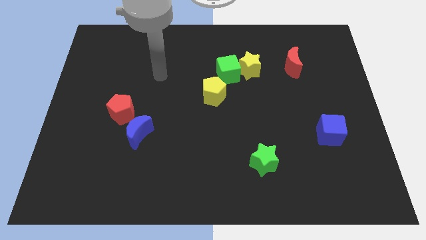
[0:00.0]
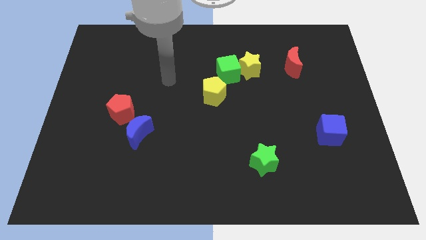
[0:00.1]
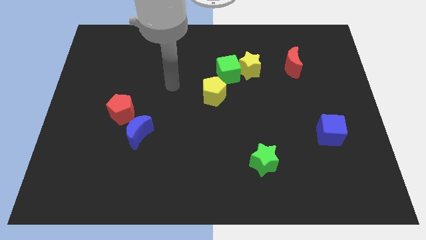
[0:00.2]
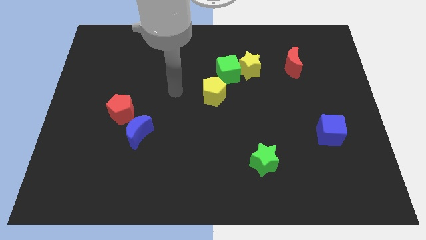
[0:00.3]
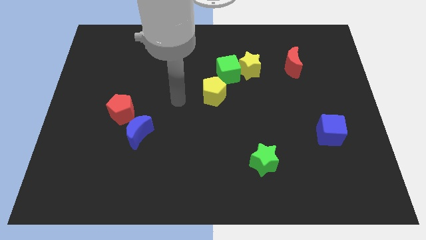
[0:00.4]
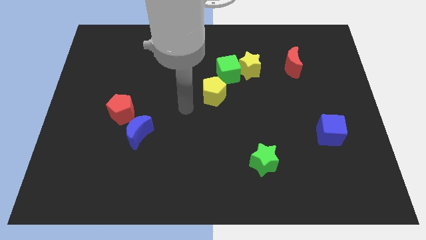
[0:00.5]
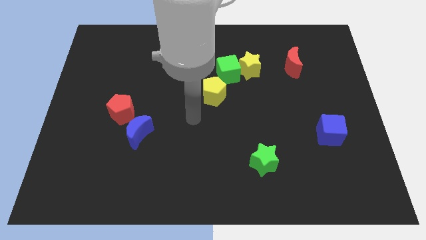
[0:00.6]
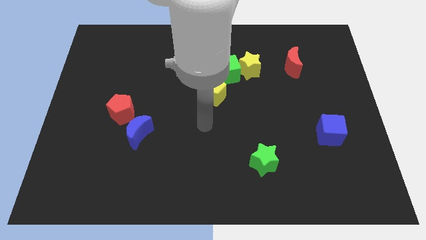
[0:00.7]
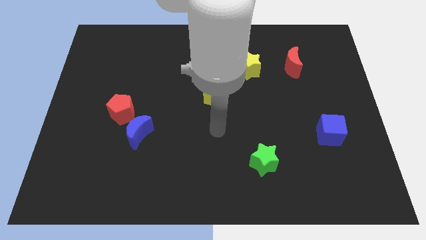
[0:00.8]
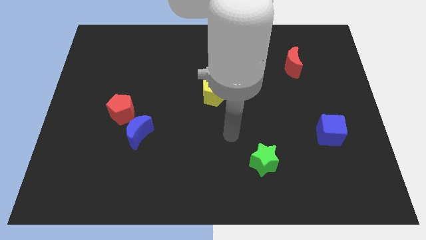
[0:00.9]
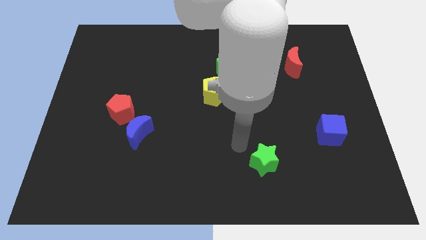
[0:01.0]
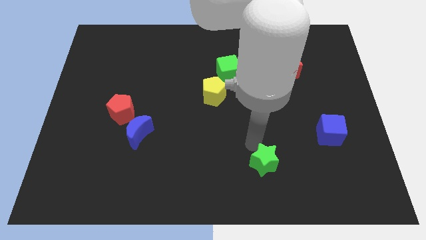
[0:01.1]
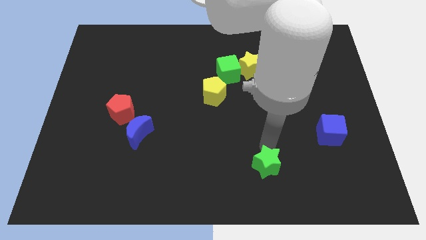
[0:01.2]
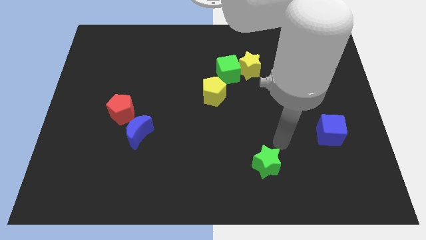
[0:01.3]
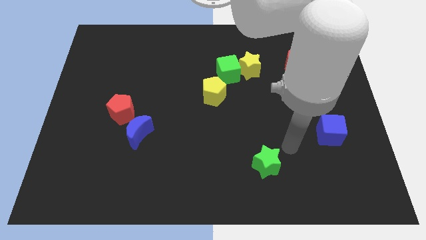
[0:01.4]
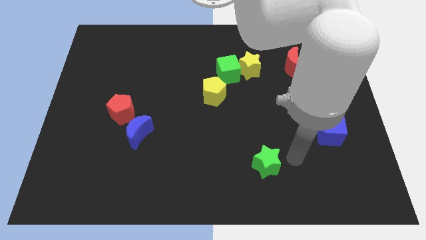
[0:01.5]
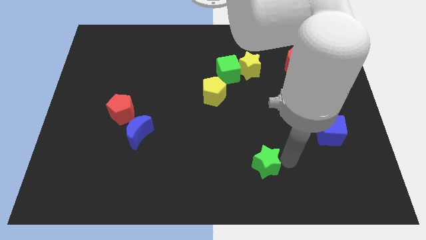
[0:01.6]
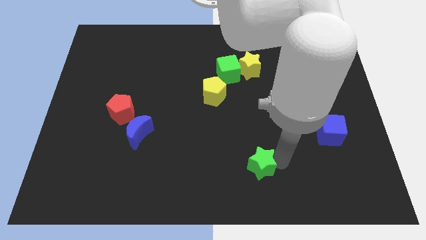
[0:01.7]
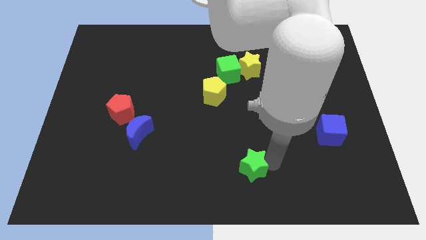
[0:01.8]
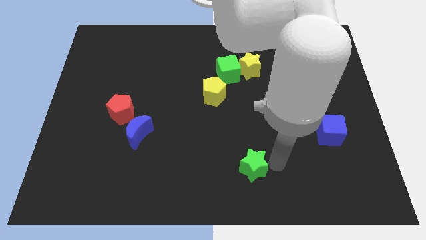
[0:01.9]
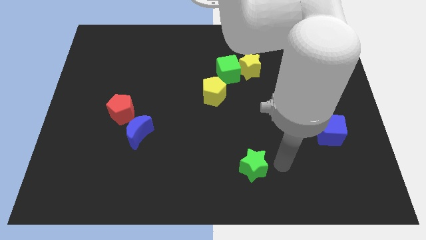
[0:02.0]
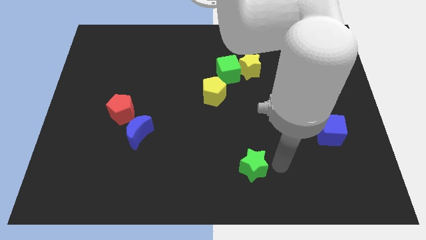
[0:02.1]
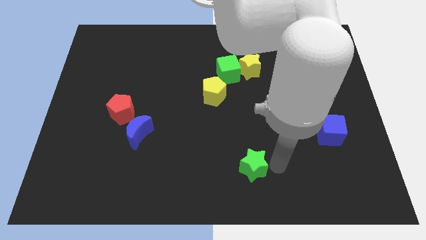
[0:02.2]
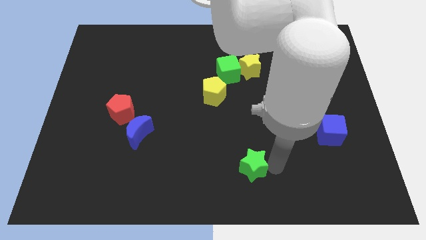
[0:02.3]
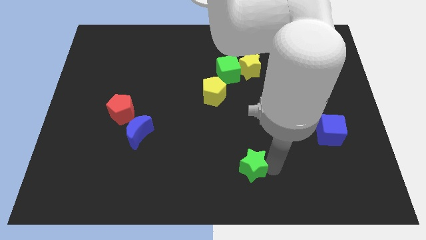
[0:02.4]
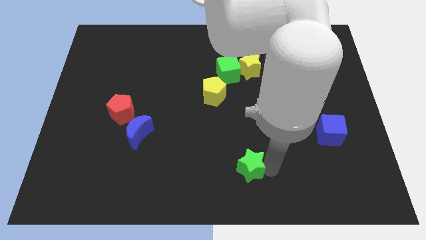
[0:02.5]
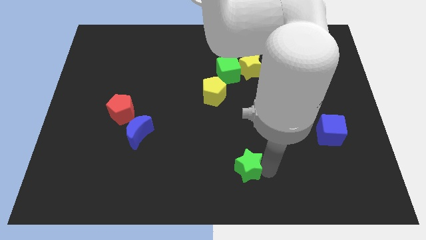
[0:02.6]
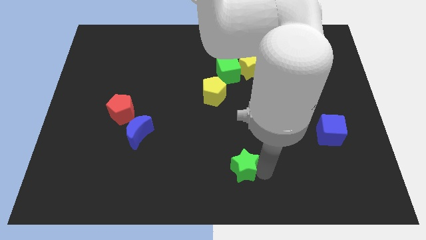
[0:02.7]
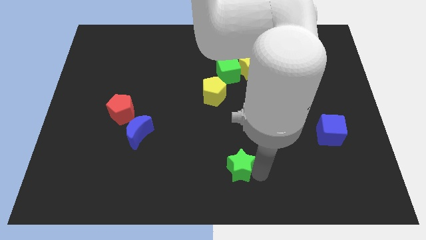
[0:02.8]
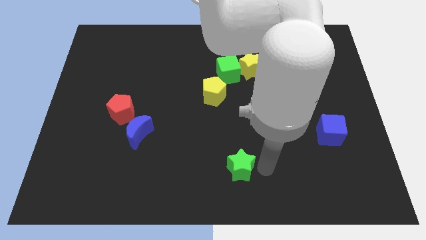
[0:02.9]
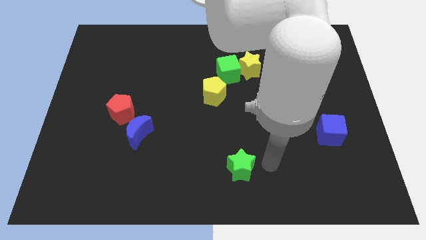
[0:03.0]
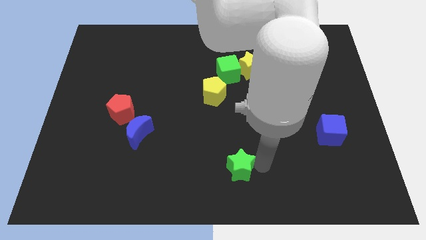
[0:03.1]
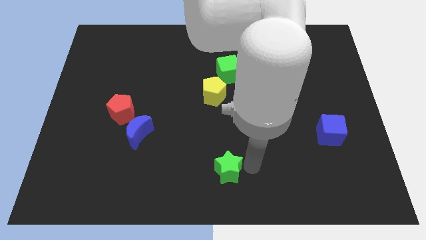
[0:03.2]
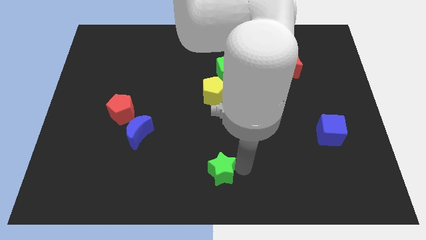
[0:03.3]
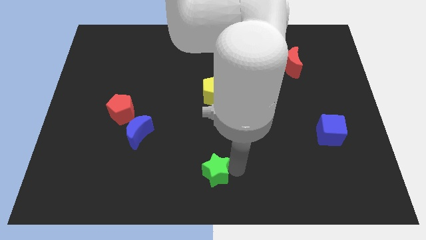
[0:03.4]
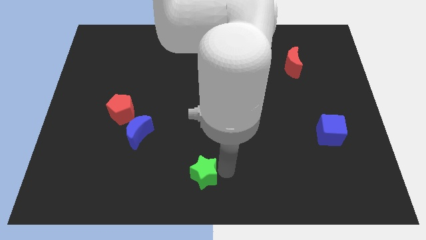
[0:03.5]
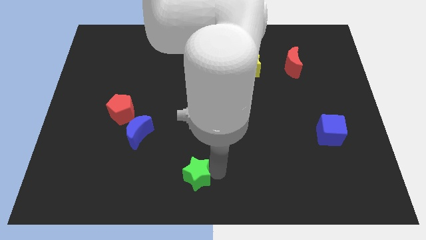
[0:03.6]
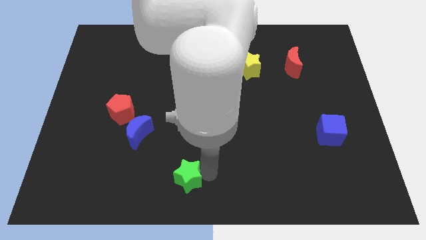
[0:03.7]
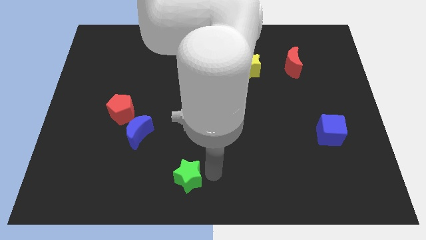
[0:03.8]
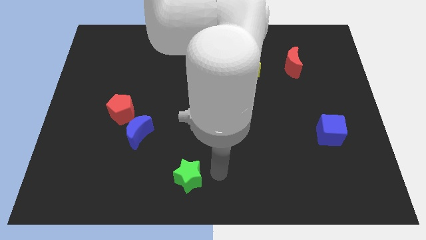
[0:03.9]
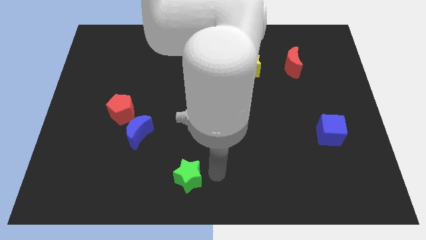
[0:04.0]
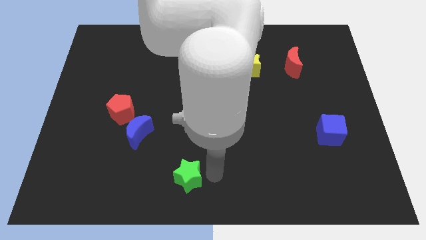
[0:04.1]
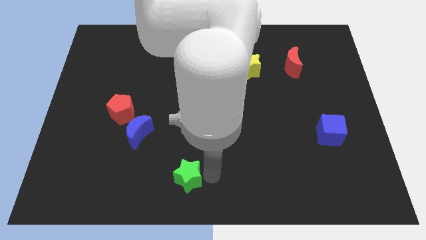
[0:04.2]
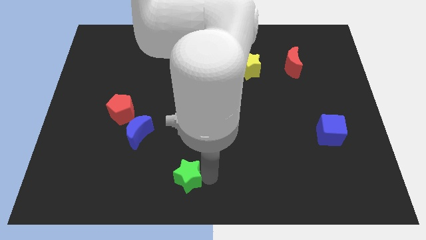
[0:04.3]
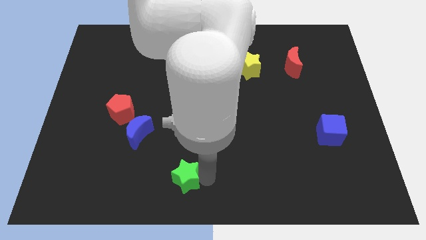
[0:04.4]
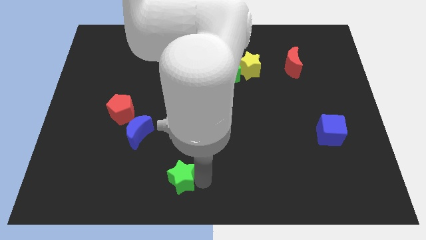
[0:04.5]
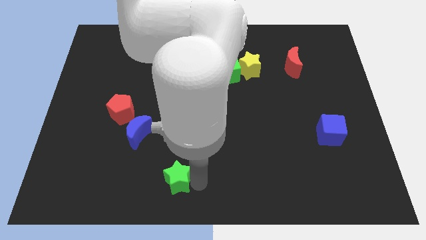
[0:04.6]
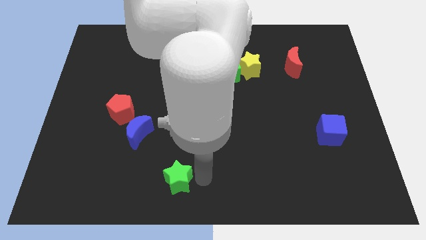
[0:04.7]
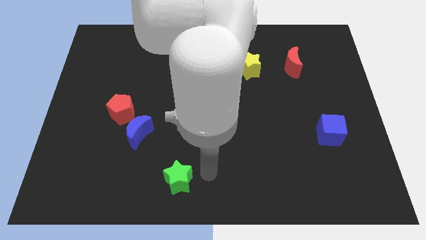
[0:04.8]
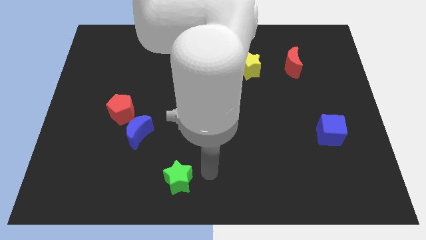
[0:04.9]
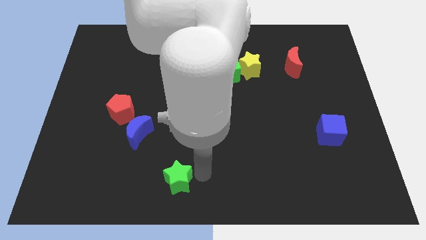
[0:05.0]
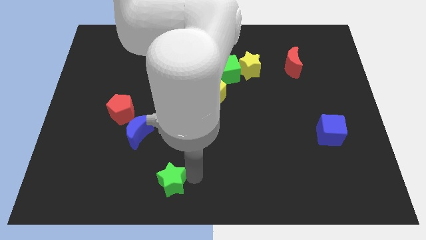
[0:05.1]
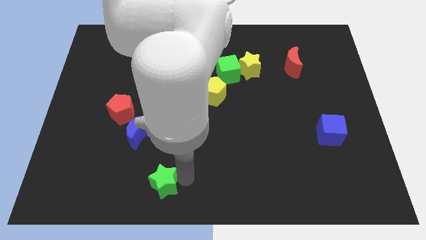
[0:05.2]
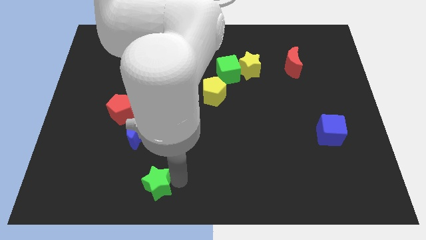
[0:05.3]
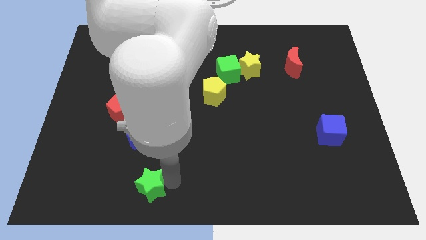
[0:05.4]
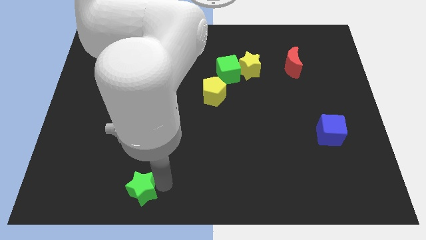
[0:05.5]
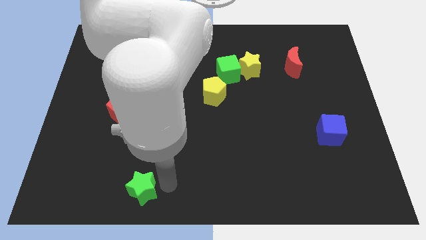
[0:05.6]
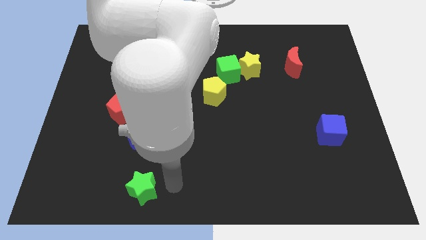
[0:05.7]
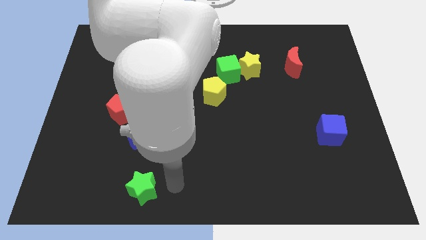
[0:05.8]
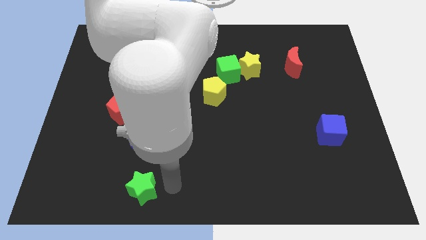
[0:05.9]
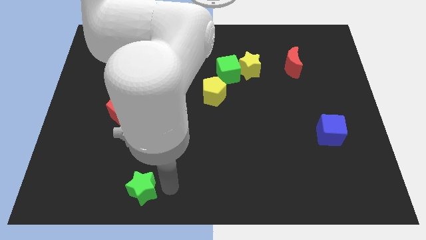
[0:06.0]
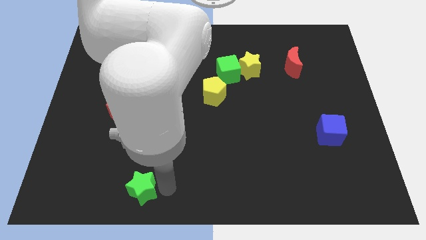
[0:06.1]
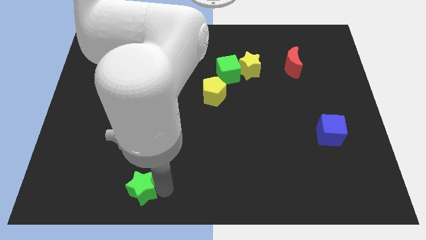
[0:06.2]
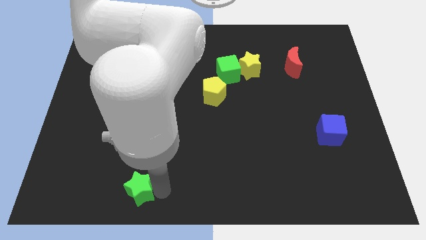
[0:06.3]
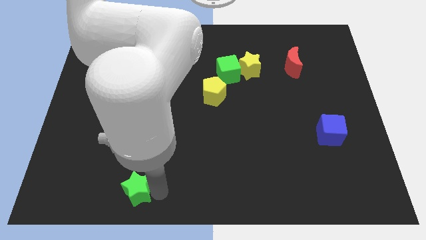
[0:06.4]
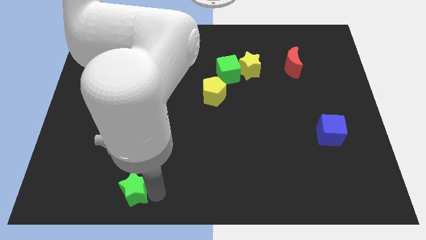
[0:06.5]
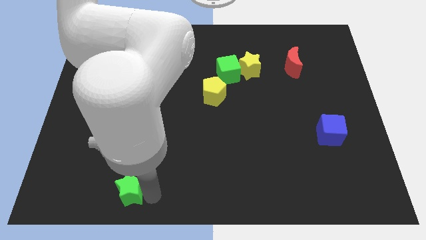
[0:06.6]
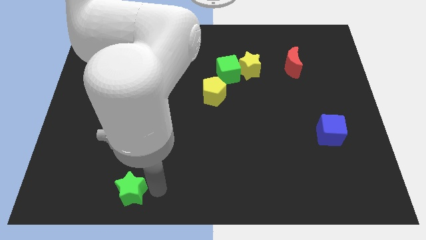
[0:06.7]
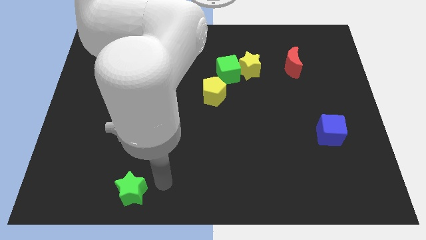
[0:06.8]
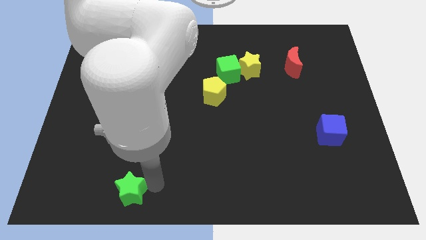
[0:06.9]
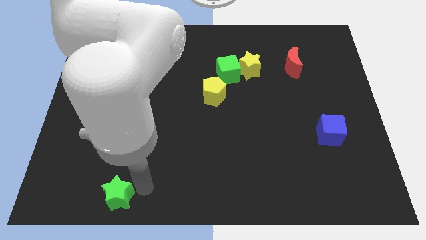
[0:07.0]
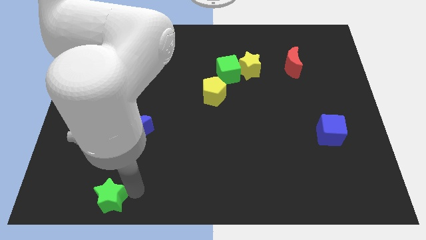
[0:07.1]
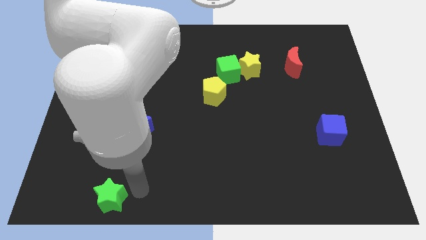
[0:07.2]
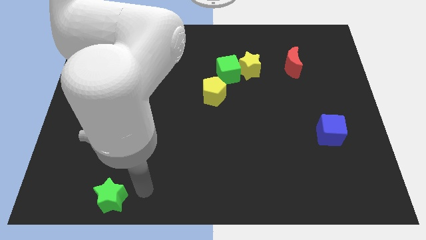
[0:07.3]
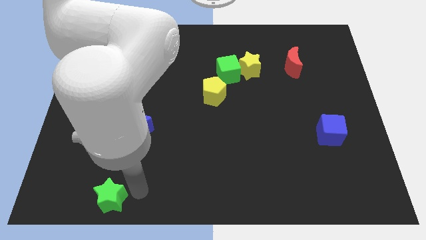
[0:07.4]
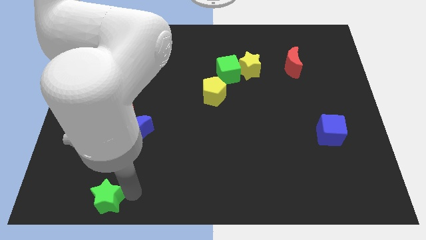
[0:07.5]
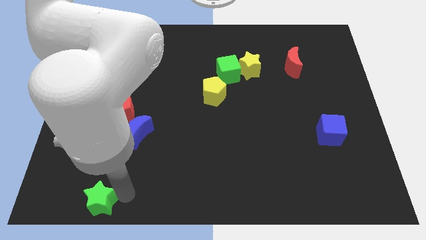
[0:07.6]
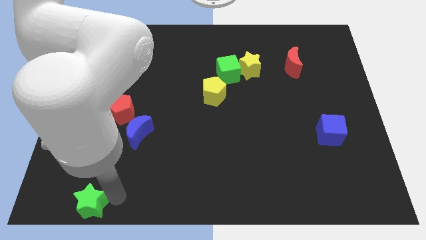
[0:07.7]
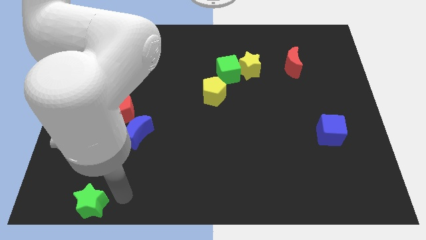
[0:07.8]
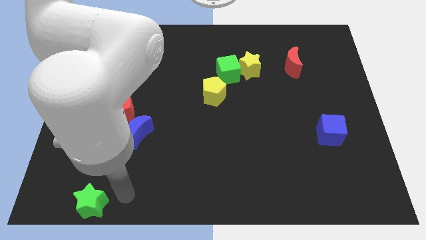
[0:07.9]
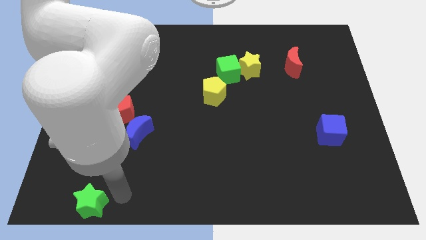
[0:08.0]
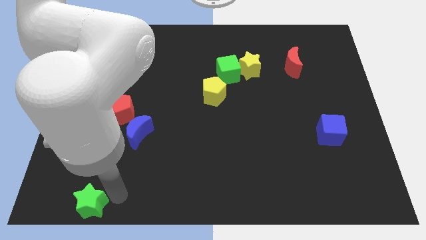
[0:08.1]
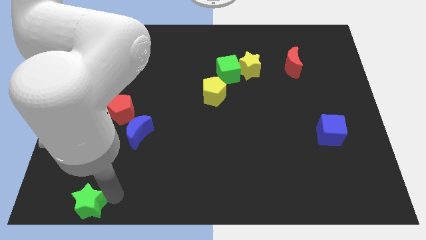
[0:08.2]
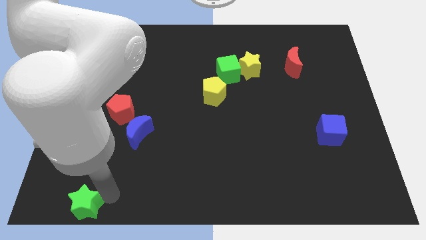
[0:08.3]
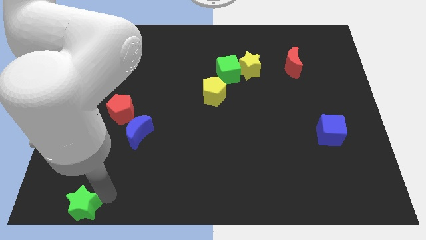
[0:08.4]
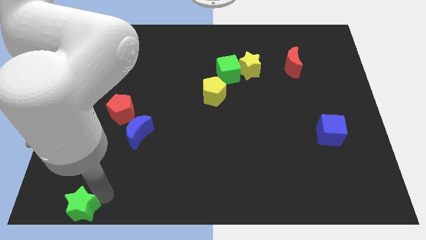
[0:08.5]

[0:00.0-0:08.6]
put the green star to the bottom left corner
